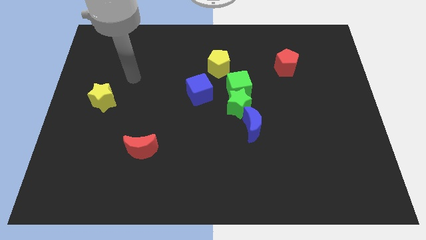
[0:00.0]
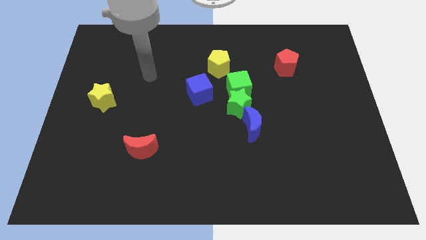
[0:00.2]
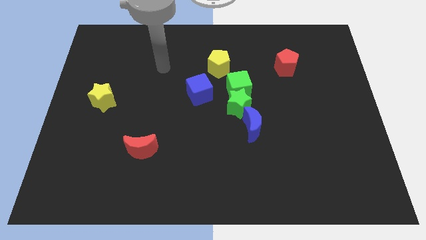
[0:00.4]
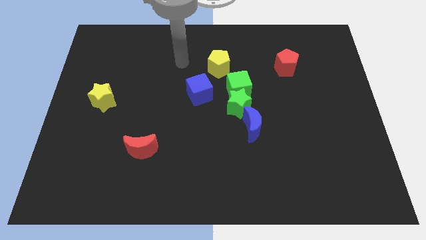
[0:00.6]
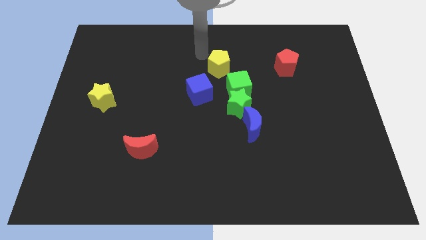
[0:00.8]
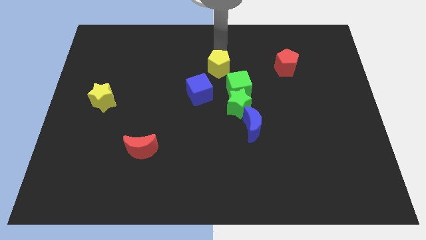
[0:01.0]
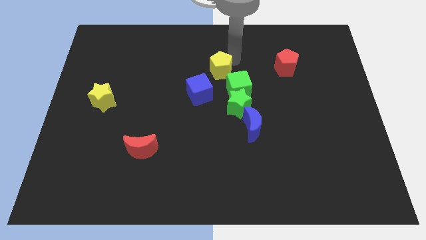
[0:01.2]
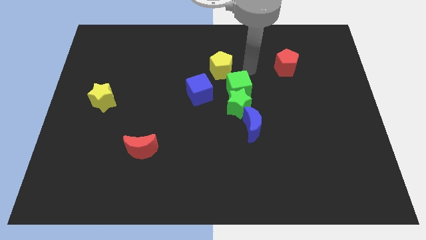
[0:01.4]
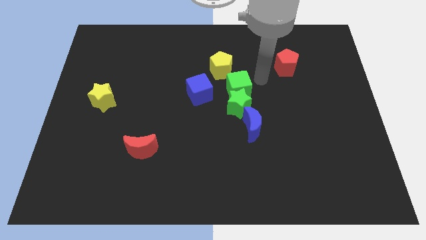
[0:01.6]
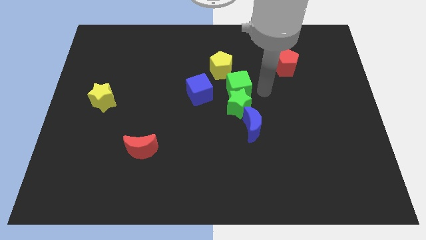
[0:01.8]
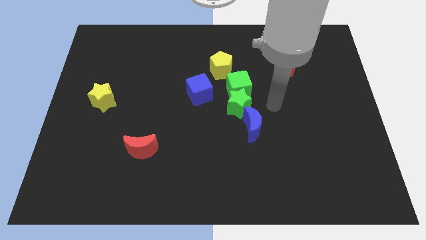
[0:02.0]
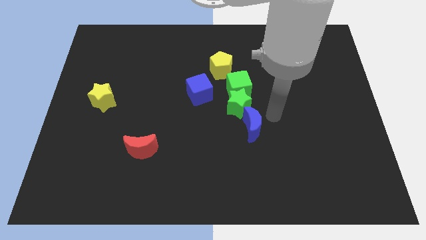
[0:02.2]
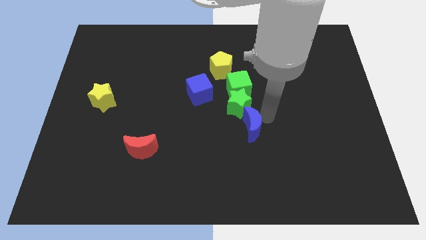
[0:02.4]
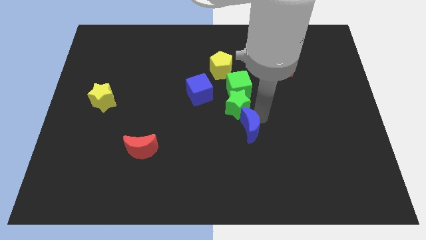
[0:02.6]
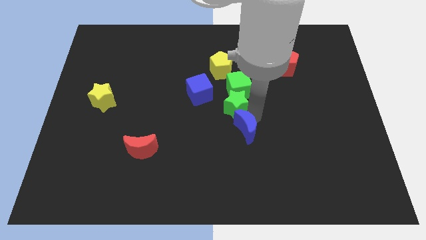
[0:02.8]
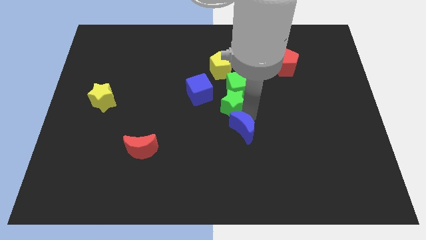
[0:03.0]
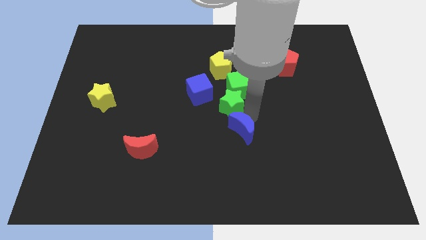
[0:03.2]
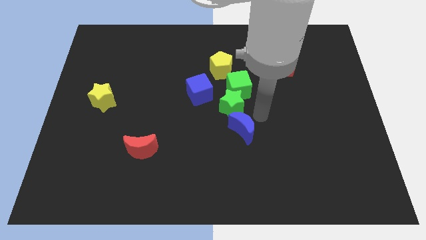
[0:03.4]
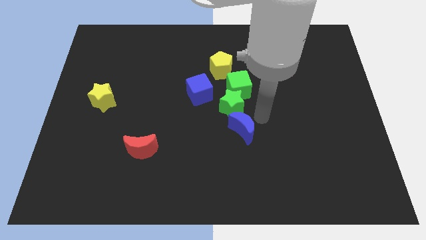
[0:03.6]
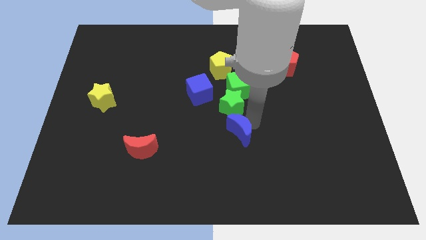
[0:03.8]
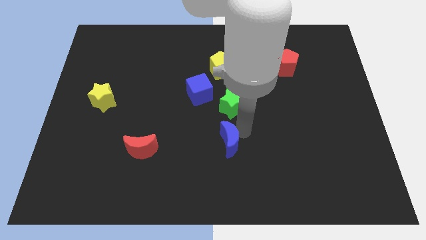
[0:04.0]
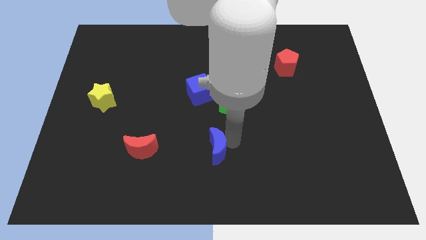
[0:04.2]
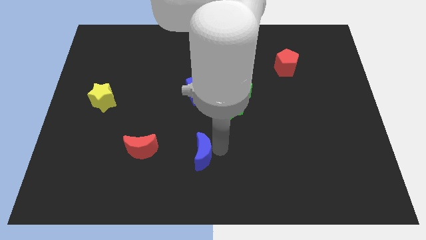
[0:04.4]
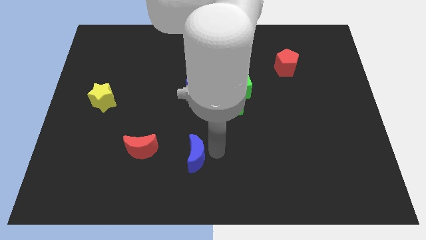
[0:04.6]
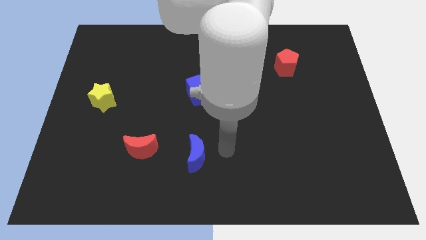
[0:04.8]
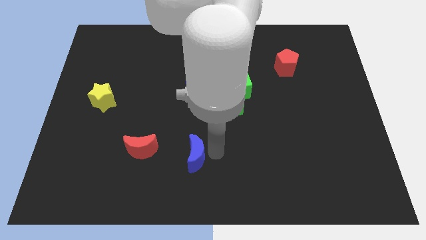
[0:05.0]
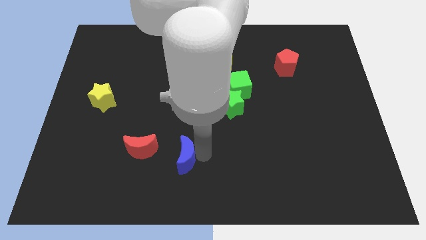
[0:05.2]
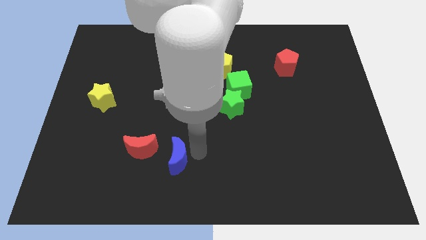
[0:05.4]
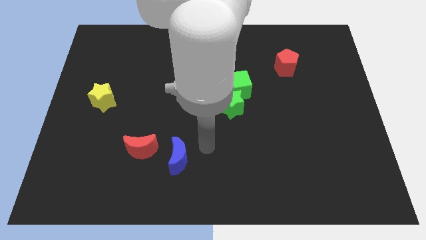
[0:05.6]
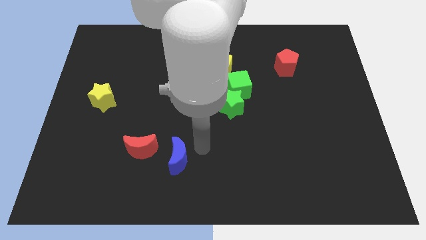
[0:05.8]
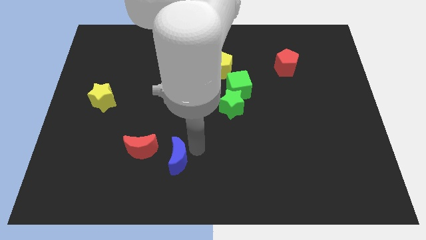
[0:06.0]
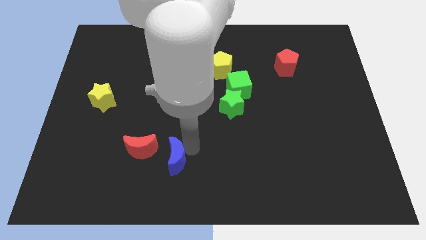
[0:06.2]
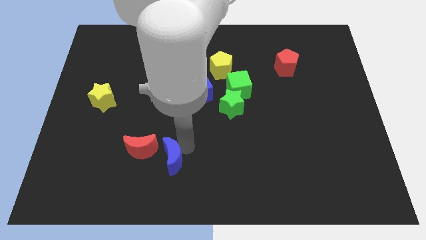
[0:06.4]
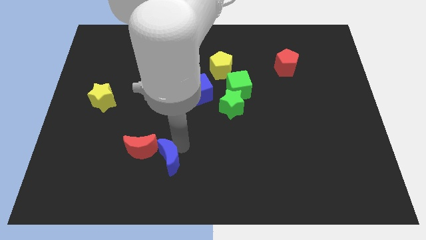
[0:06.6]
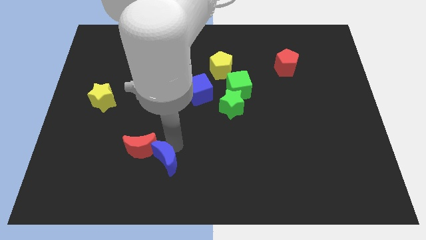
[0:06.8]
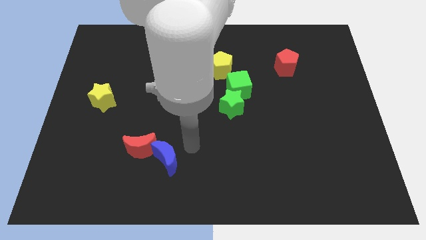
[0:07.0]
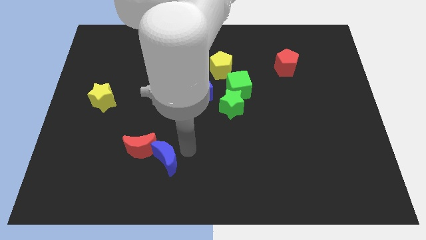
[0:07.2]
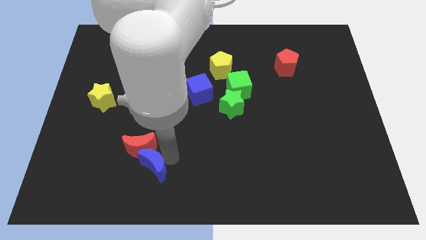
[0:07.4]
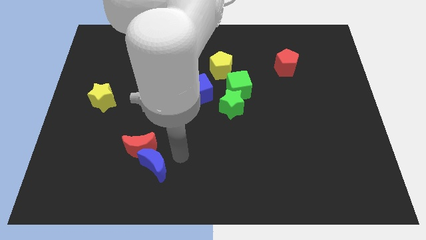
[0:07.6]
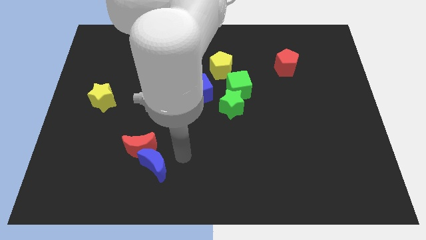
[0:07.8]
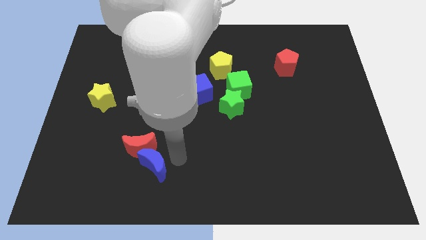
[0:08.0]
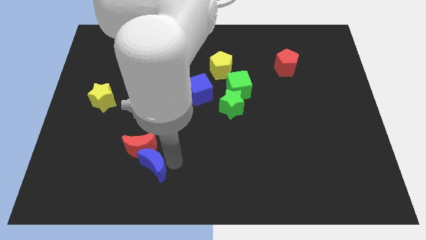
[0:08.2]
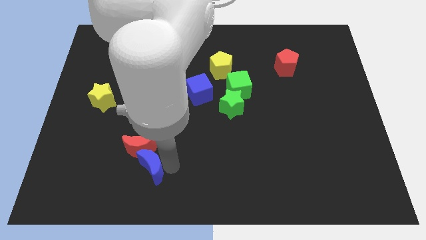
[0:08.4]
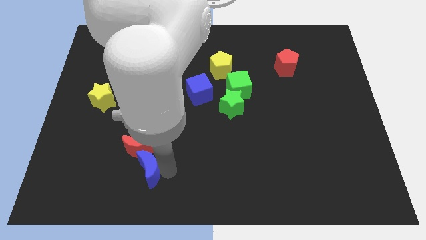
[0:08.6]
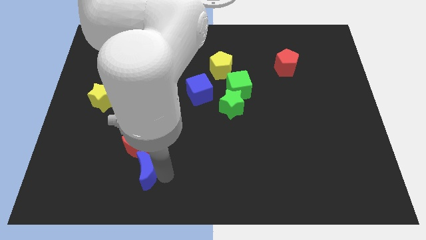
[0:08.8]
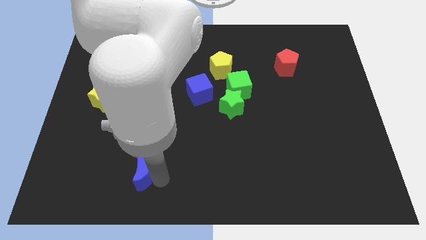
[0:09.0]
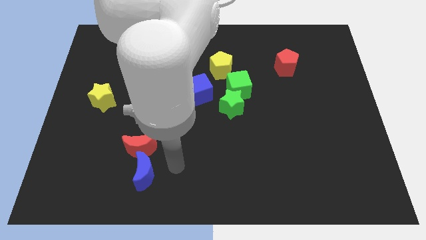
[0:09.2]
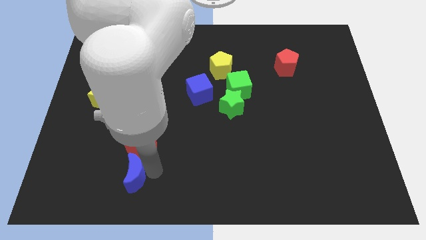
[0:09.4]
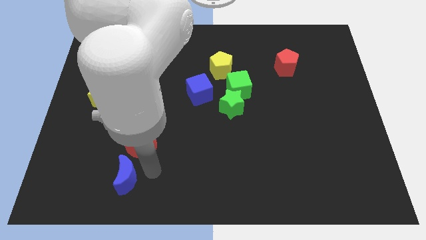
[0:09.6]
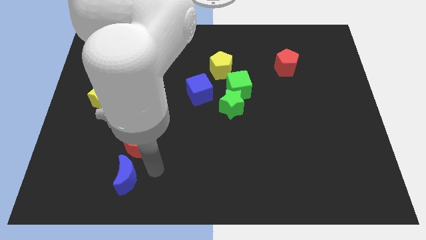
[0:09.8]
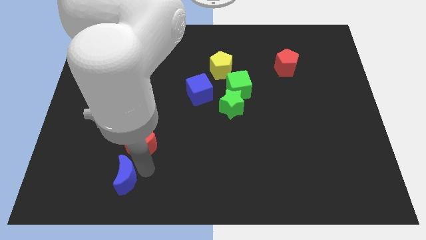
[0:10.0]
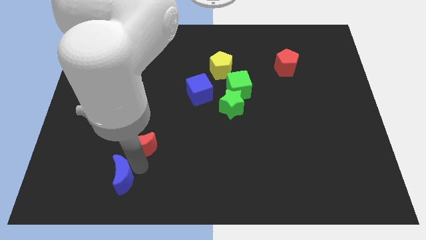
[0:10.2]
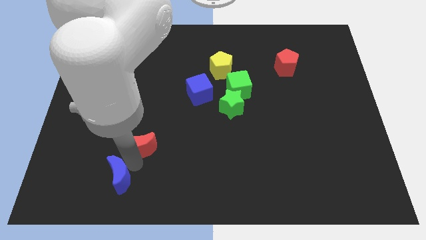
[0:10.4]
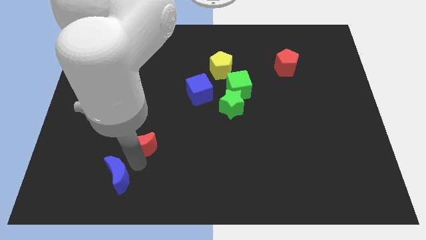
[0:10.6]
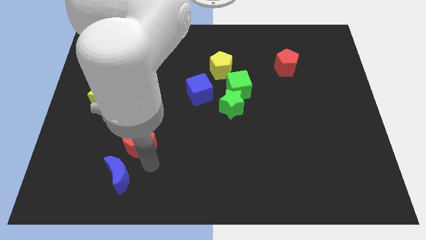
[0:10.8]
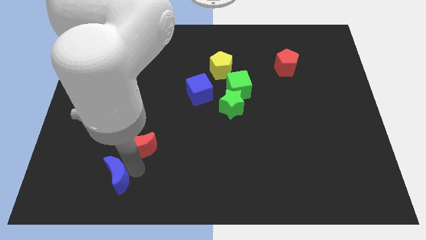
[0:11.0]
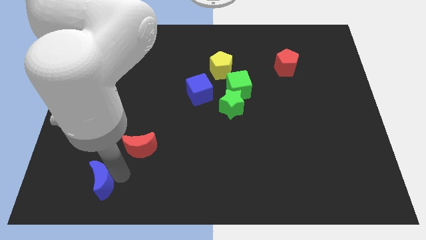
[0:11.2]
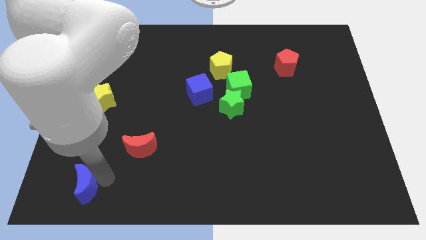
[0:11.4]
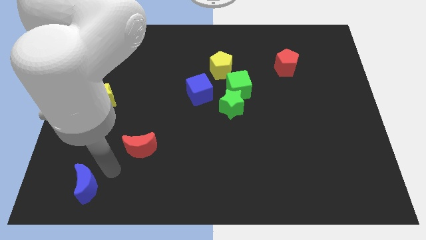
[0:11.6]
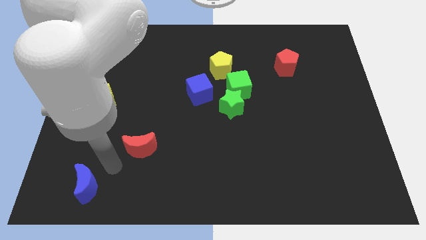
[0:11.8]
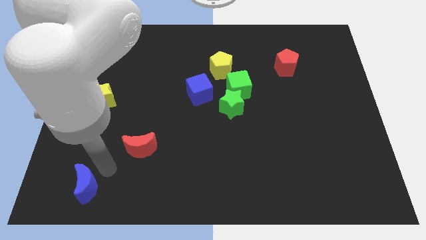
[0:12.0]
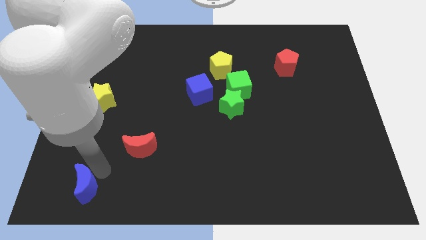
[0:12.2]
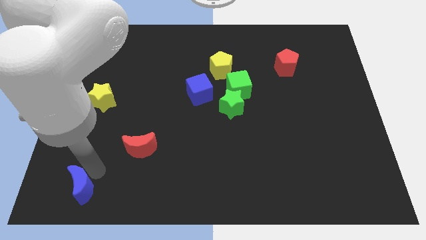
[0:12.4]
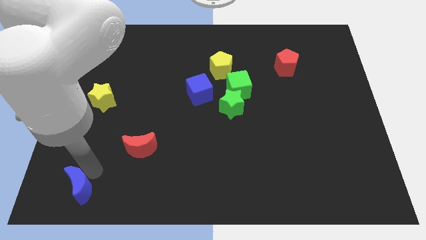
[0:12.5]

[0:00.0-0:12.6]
put the blue moon to the lower left corner
